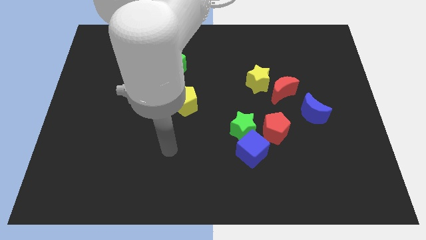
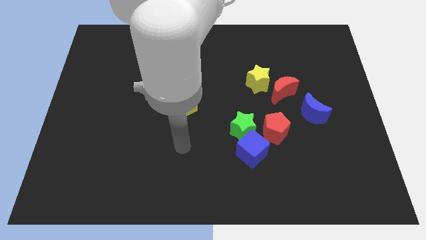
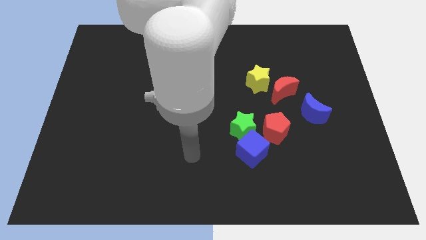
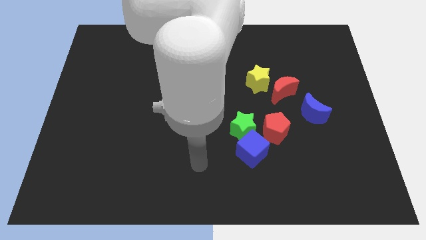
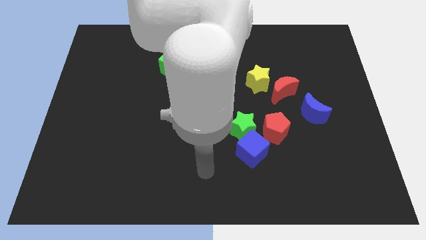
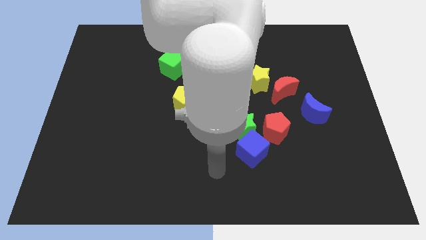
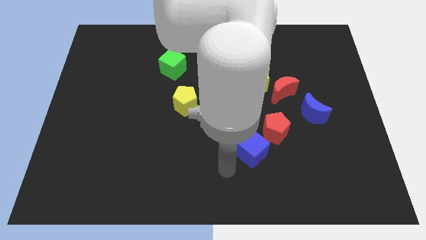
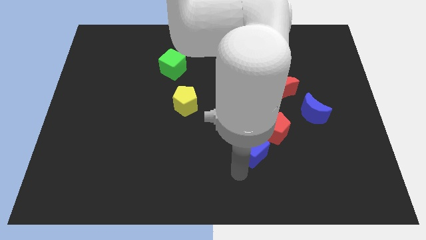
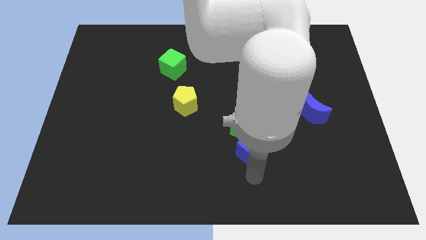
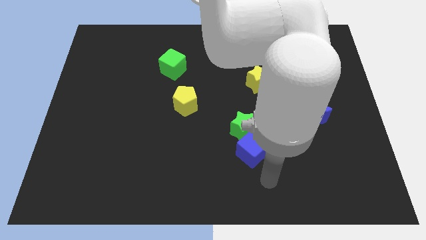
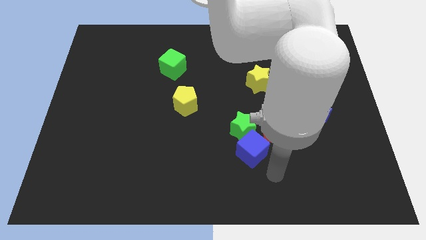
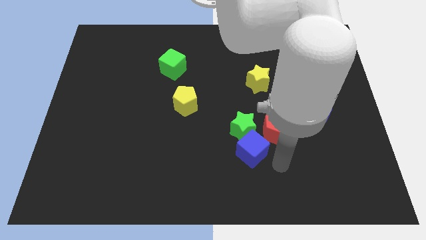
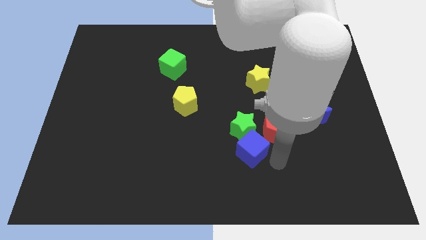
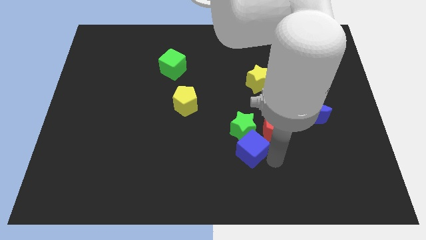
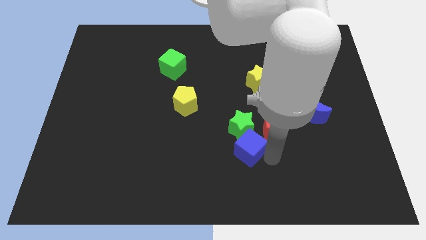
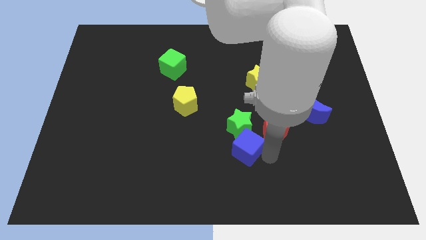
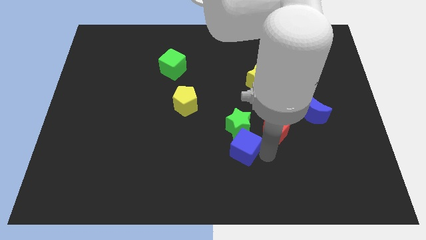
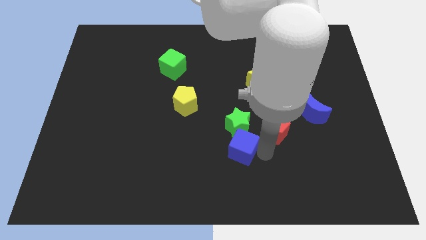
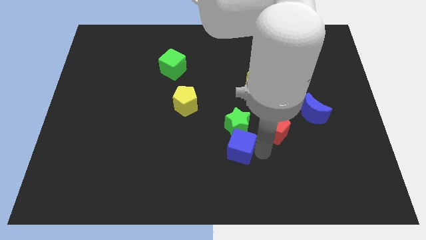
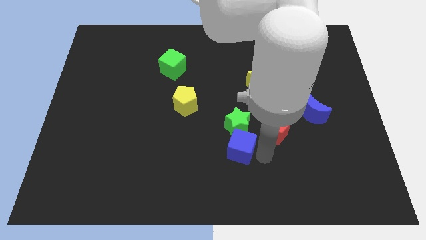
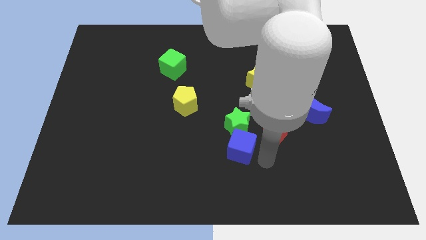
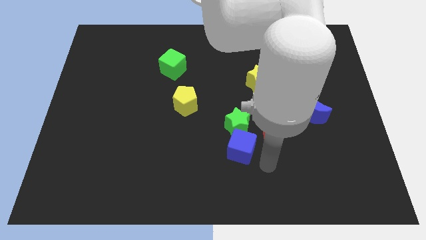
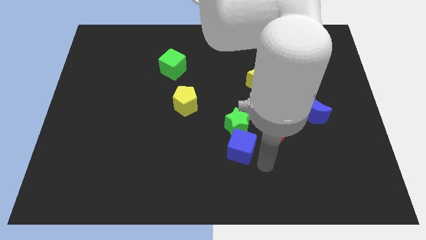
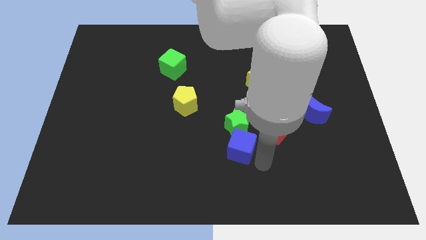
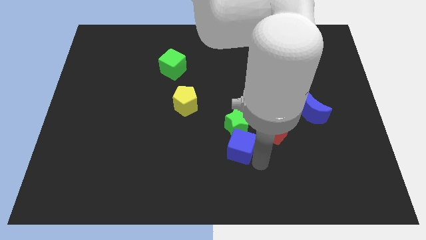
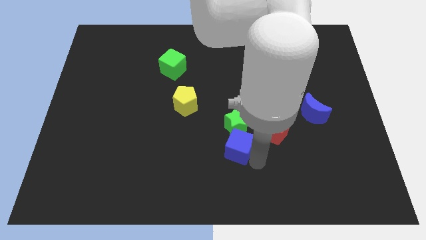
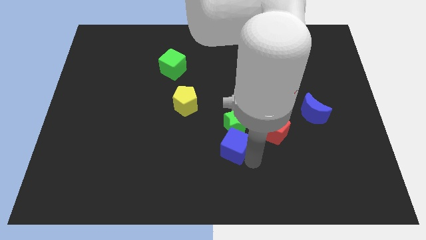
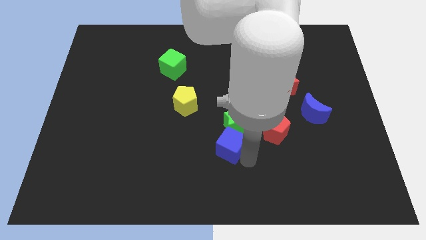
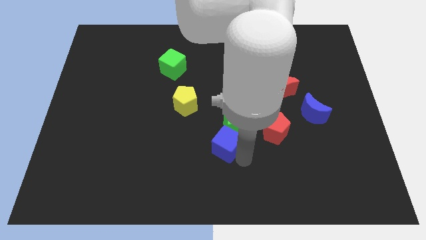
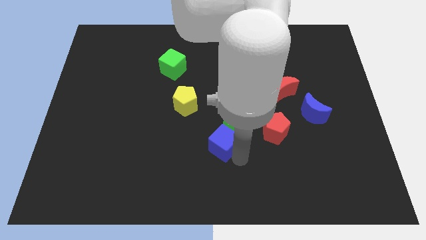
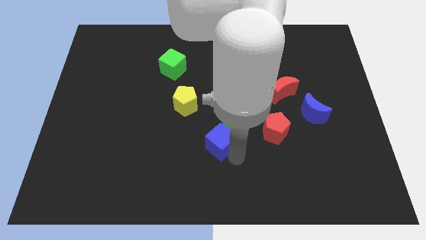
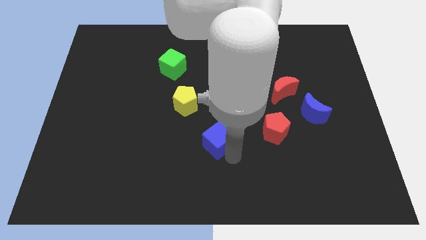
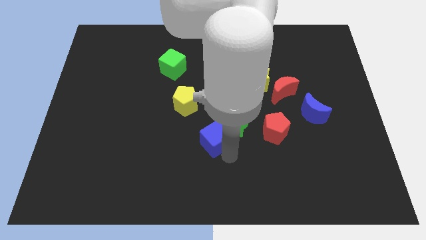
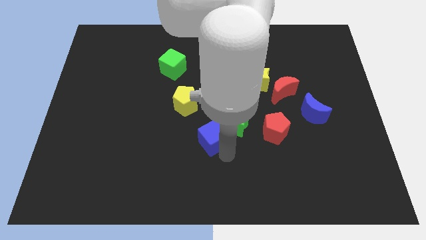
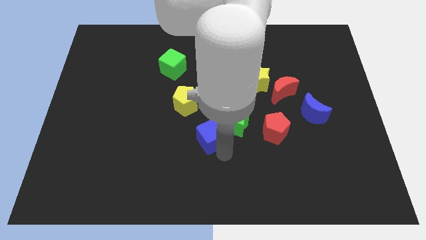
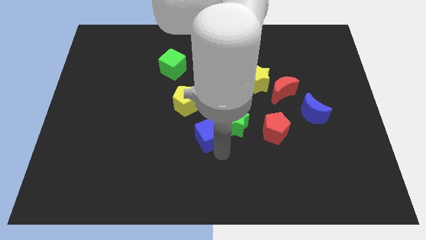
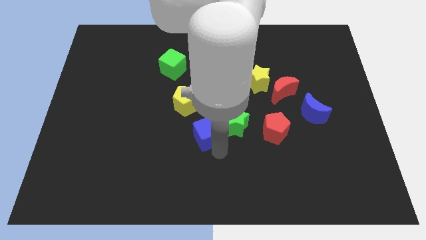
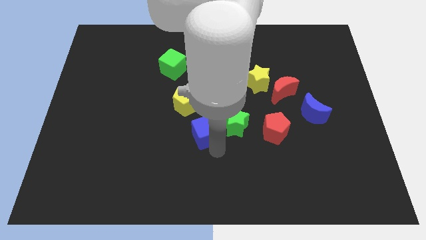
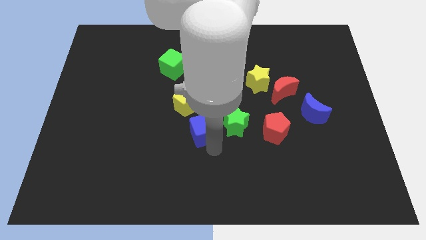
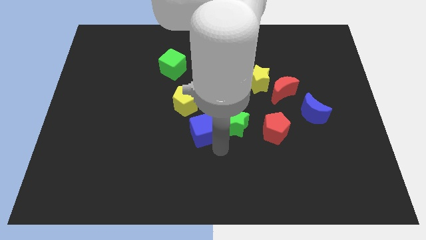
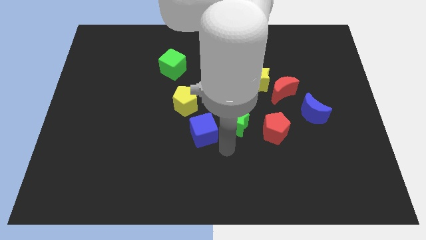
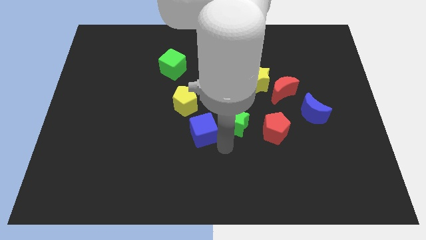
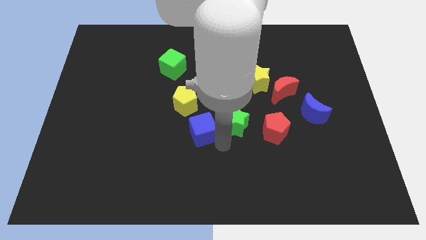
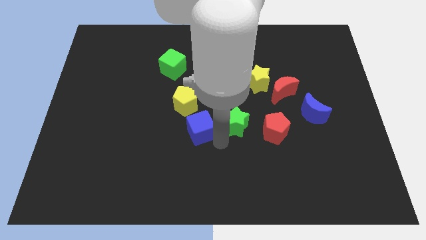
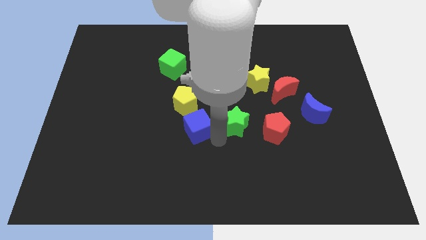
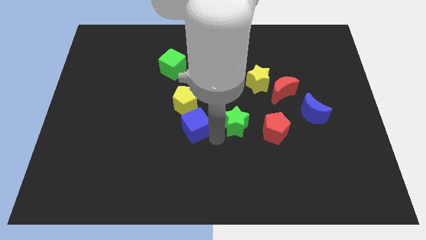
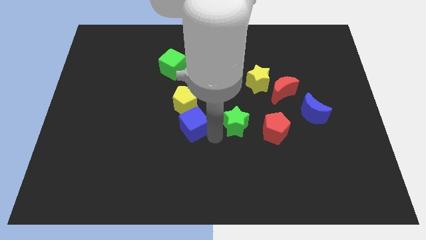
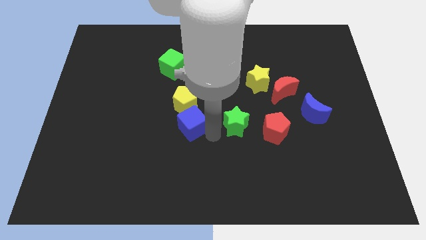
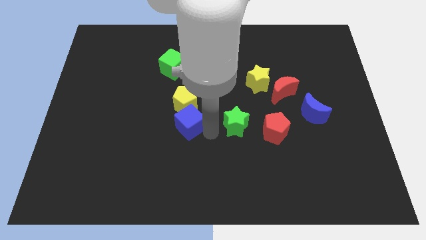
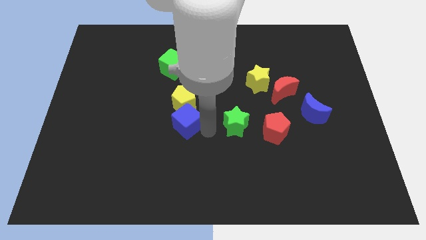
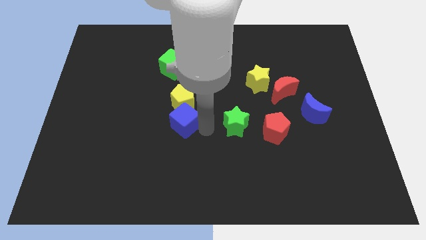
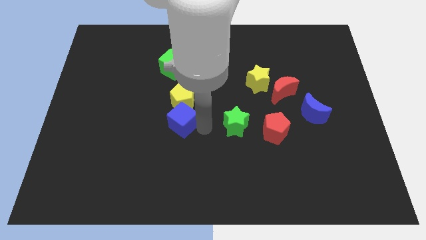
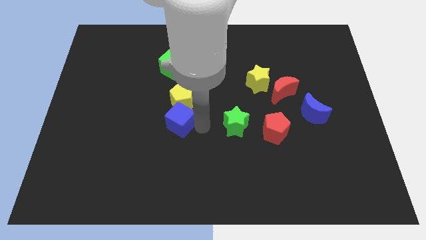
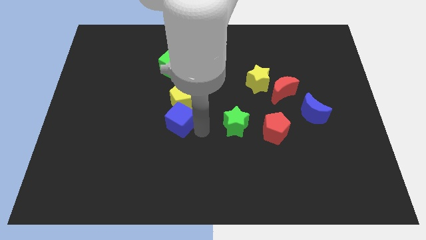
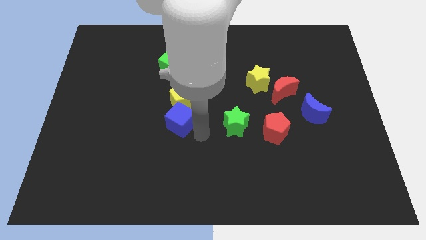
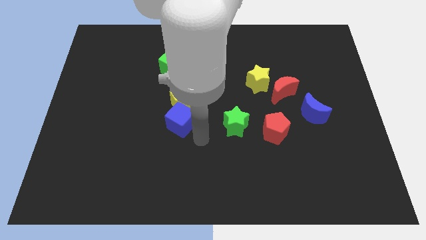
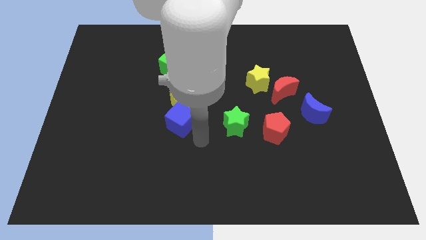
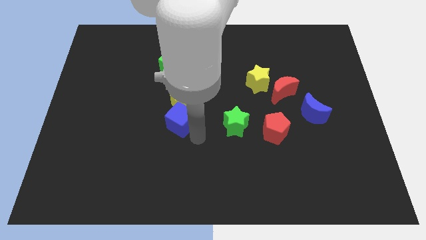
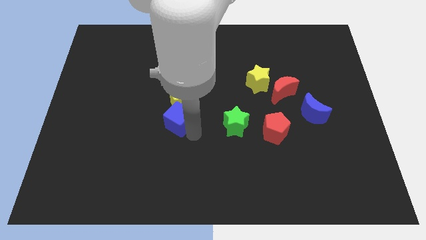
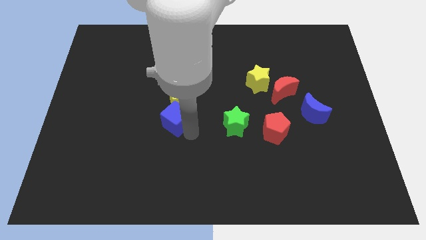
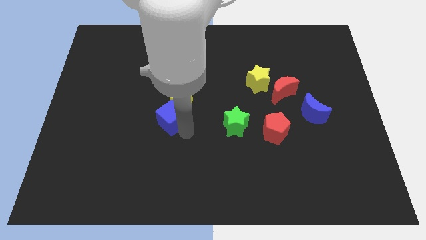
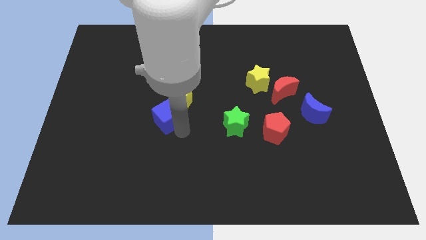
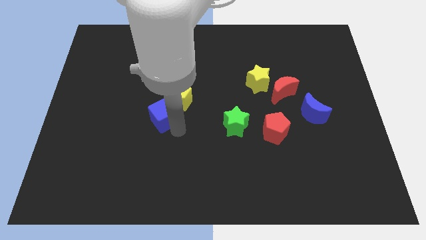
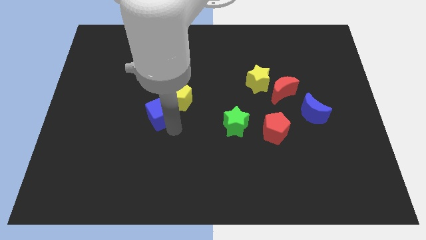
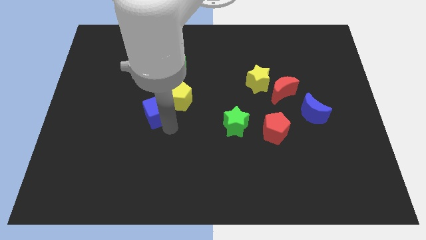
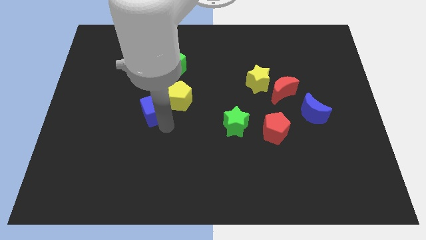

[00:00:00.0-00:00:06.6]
move the blue cube up and left diagonally

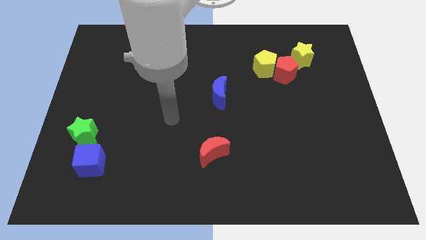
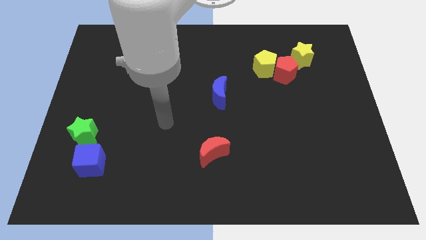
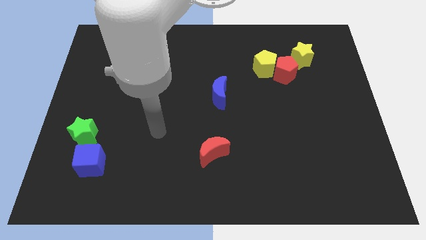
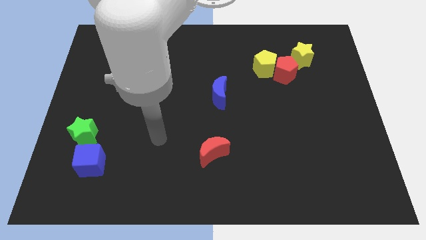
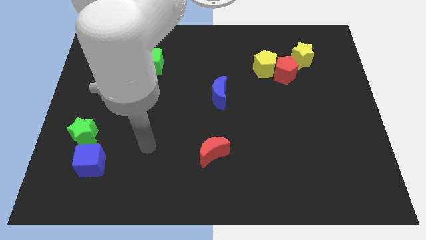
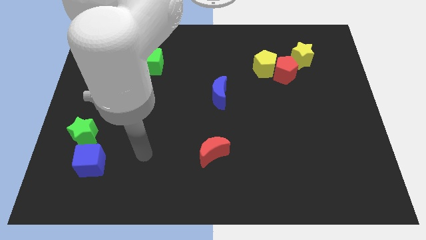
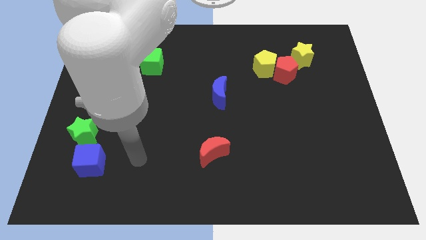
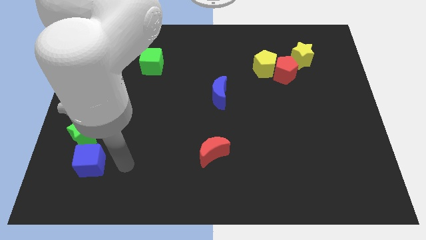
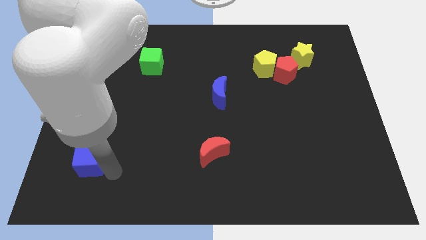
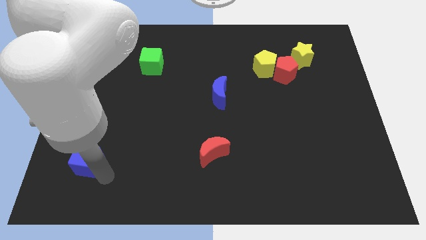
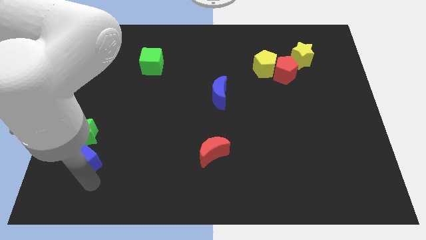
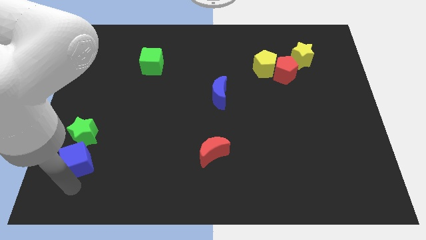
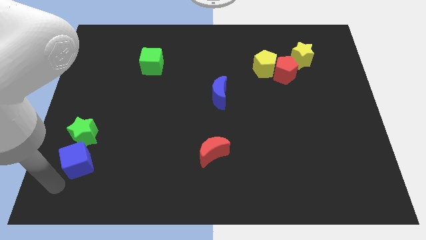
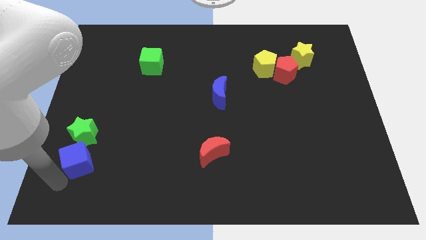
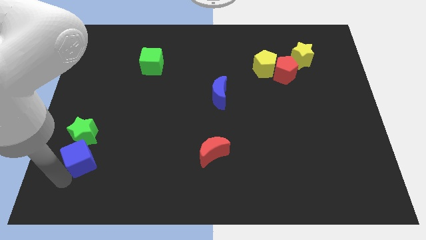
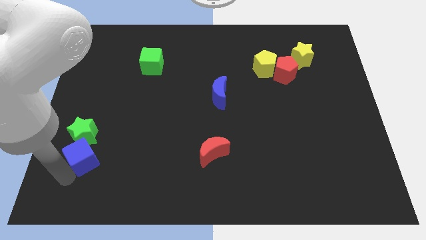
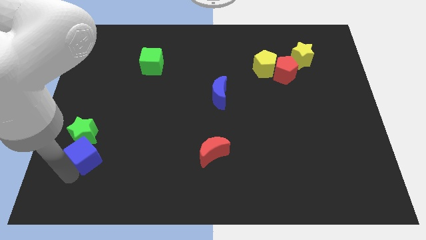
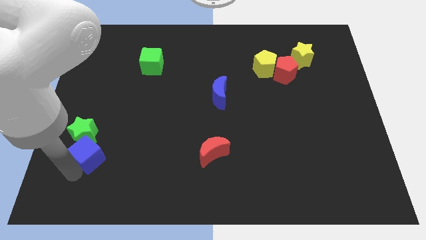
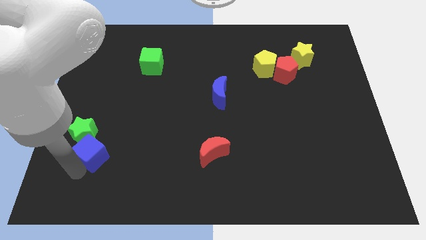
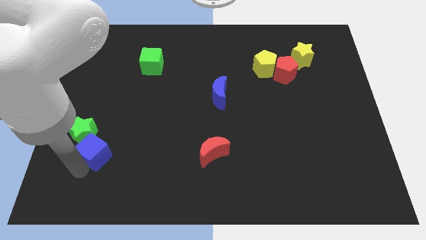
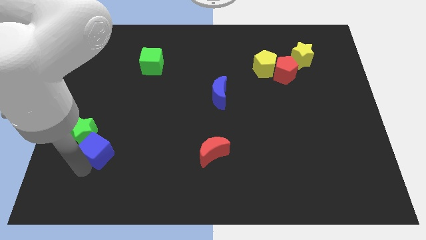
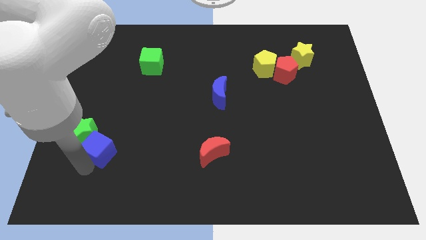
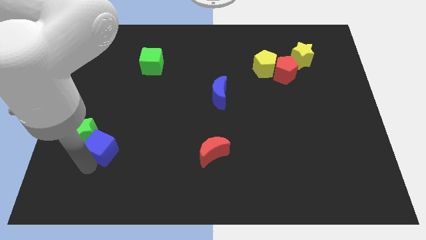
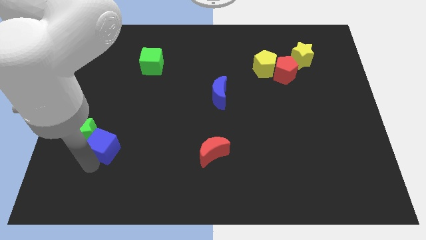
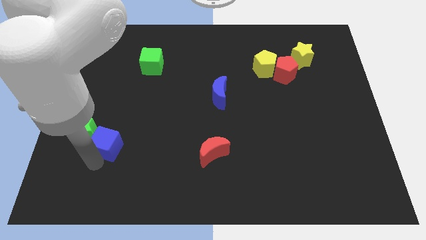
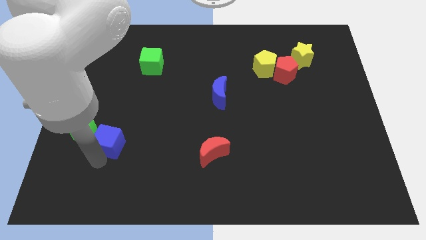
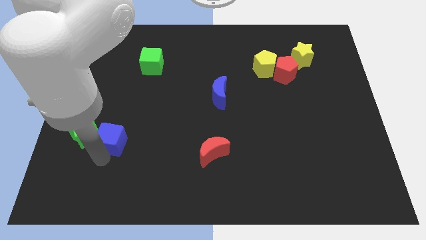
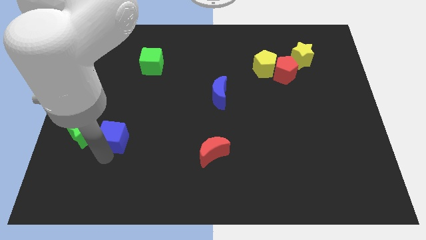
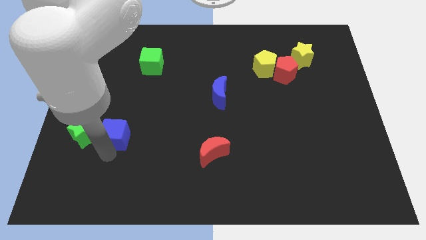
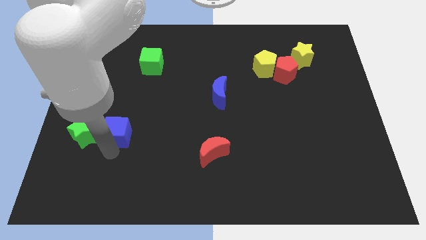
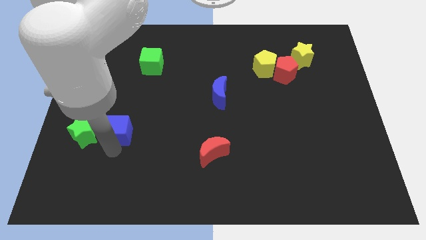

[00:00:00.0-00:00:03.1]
move the blue cube slightly upwards
